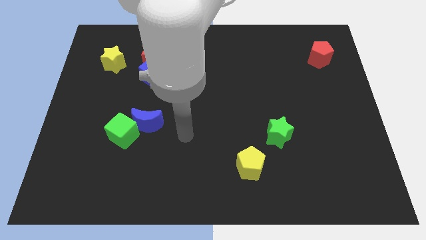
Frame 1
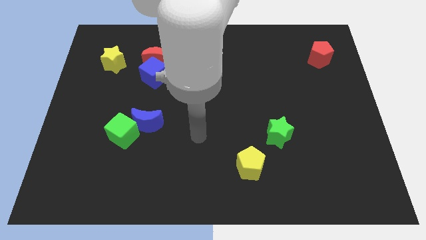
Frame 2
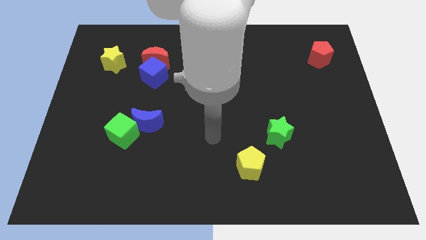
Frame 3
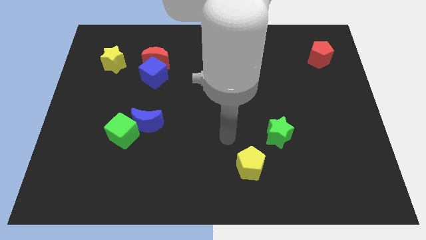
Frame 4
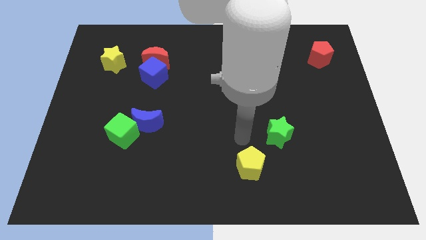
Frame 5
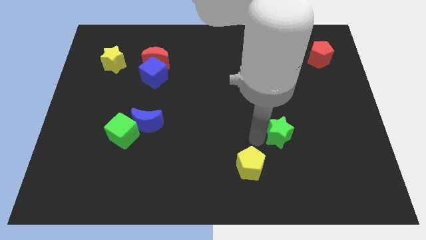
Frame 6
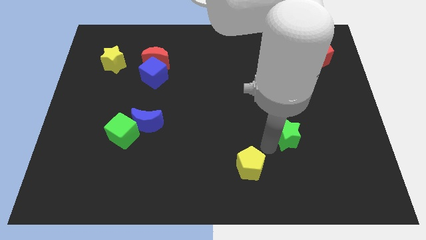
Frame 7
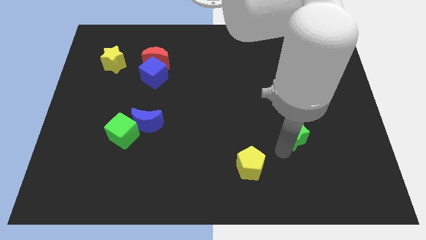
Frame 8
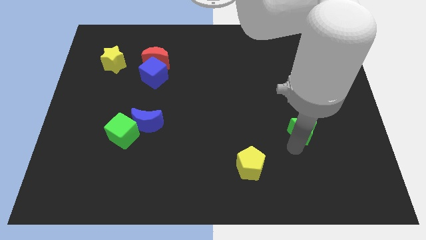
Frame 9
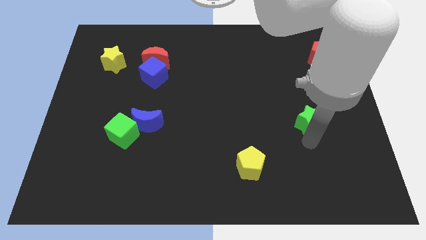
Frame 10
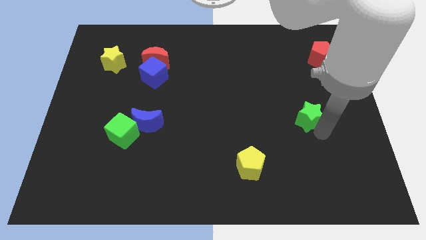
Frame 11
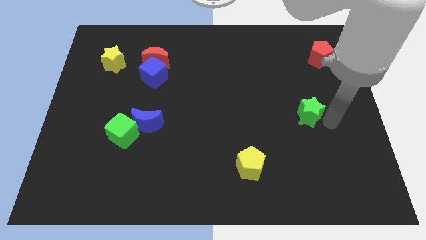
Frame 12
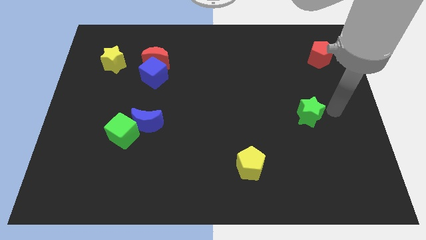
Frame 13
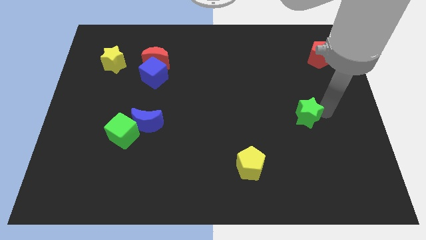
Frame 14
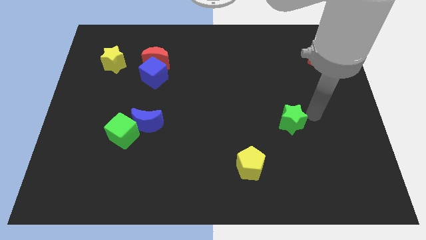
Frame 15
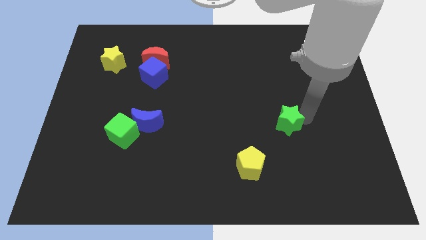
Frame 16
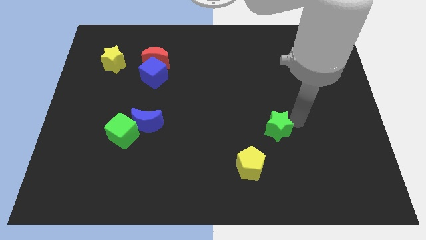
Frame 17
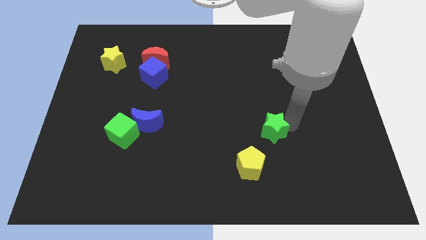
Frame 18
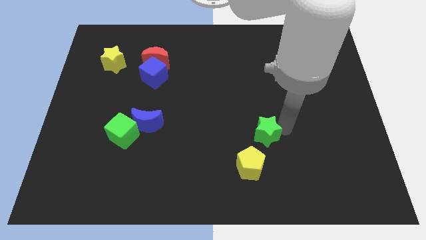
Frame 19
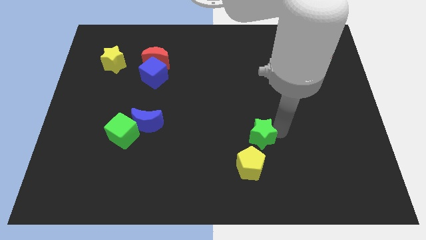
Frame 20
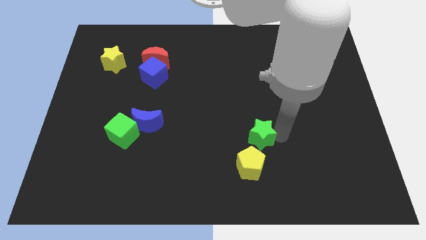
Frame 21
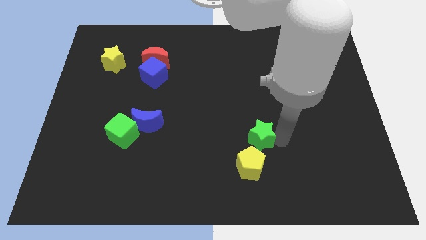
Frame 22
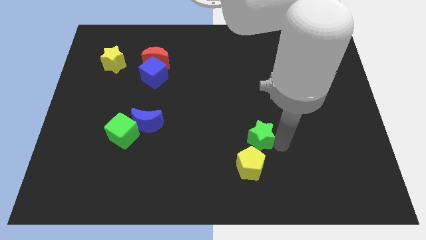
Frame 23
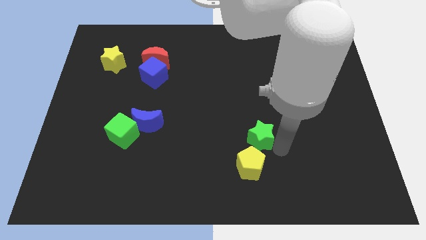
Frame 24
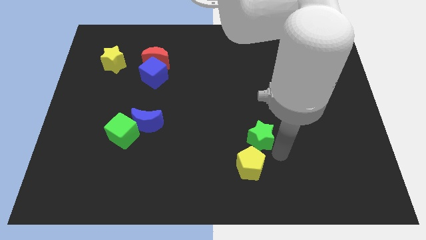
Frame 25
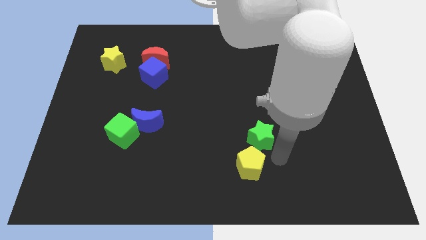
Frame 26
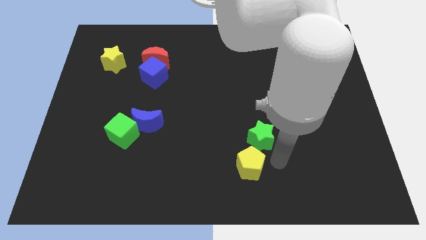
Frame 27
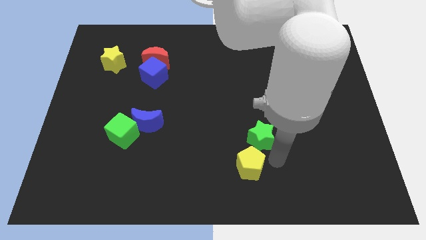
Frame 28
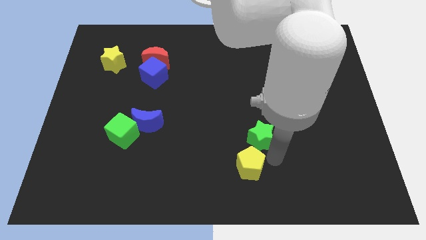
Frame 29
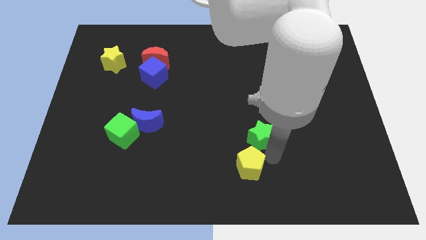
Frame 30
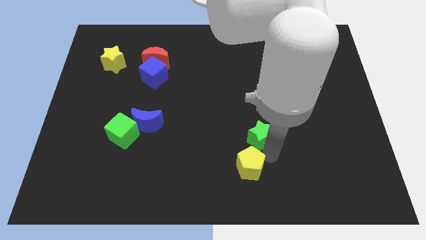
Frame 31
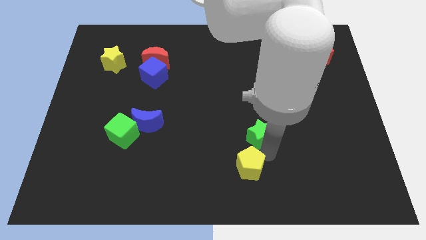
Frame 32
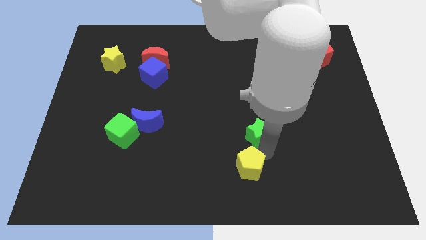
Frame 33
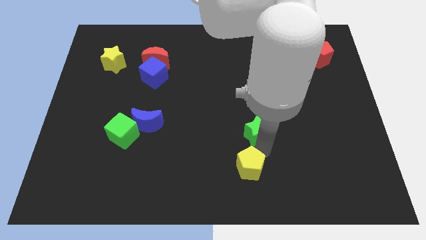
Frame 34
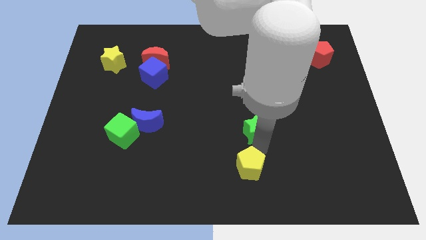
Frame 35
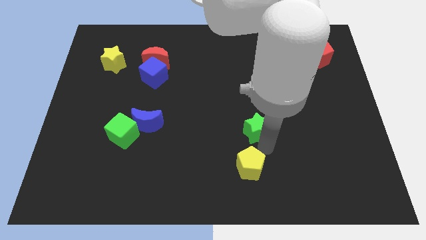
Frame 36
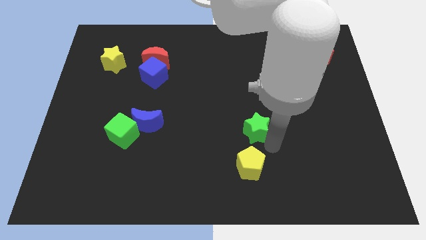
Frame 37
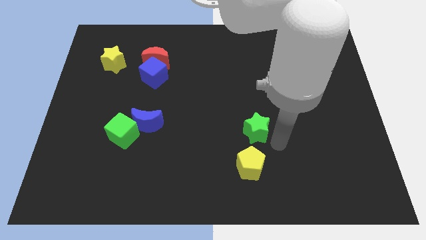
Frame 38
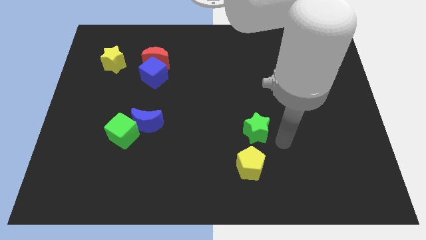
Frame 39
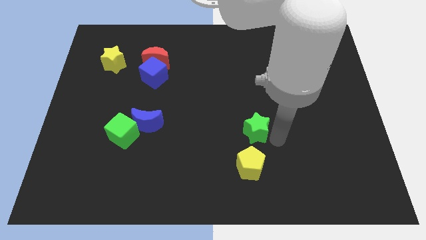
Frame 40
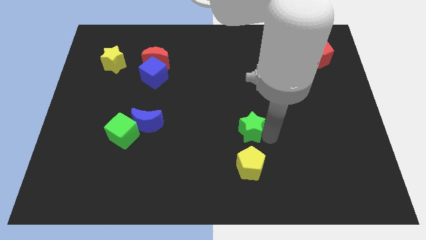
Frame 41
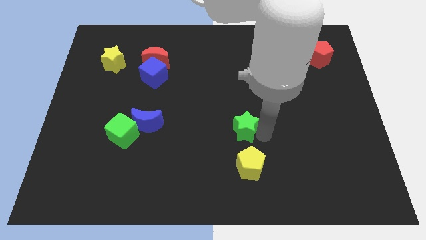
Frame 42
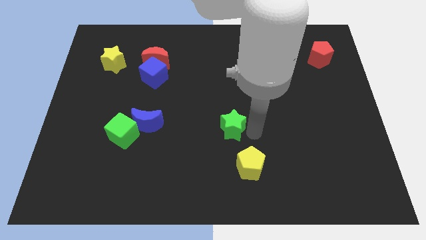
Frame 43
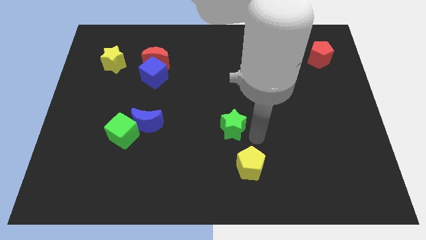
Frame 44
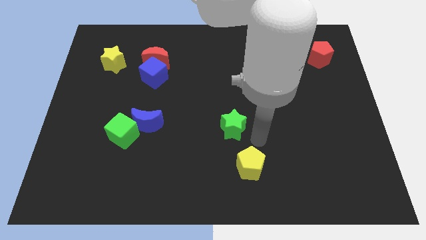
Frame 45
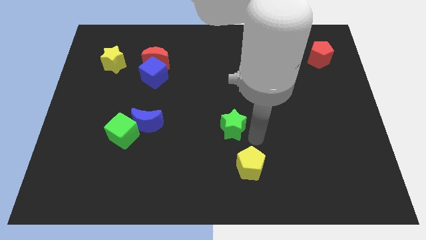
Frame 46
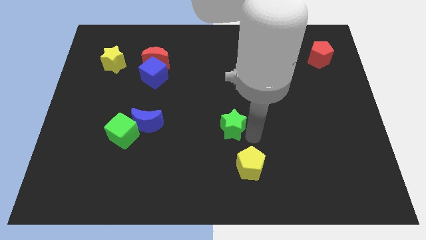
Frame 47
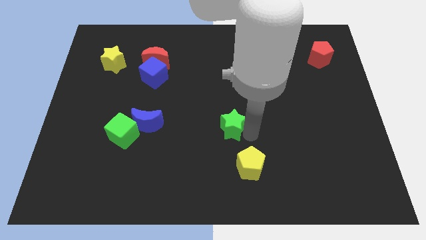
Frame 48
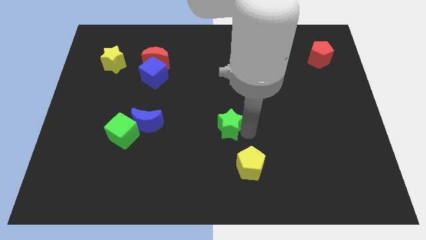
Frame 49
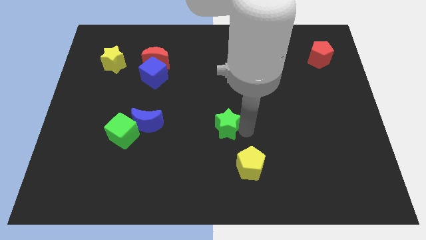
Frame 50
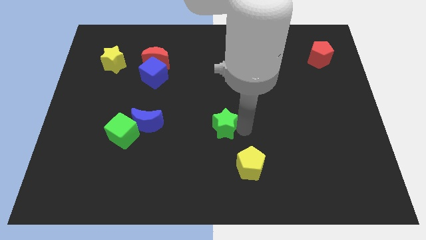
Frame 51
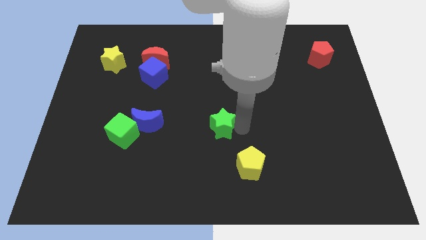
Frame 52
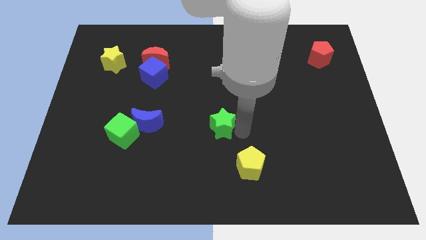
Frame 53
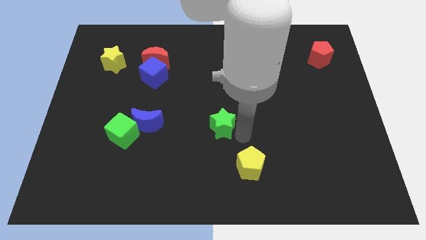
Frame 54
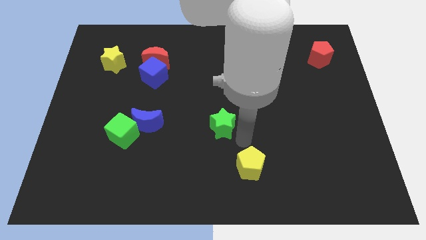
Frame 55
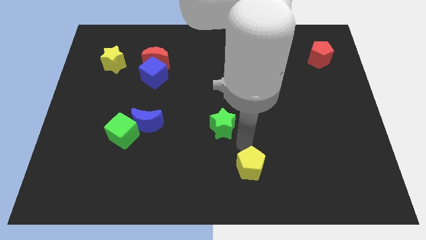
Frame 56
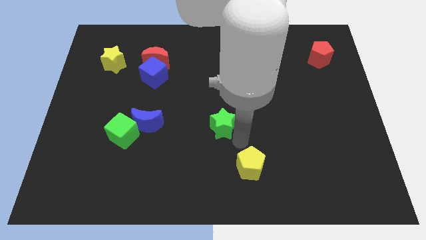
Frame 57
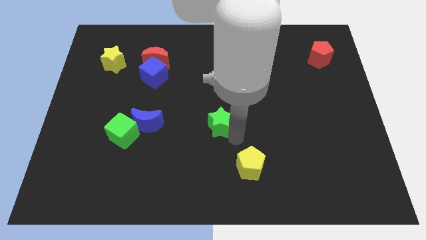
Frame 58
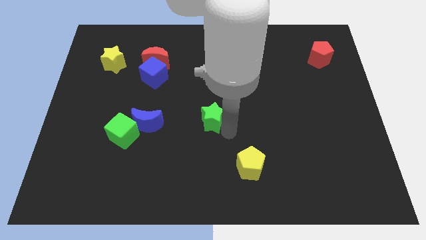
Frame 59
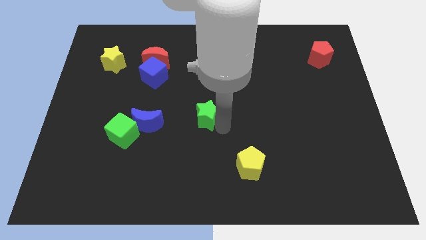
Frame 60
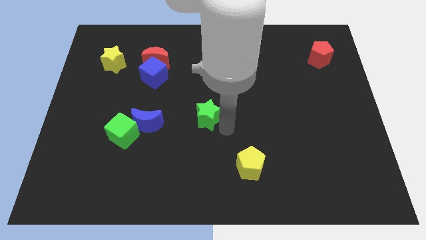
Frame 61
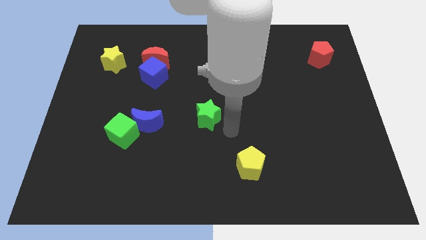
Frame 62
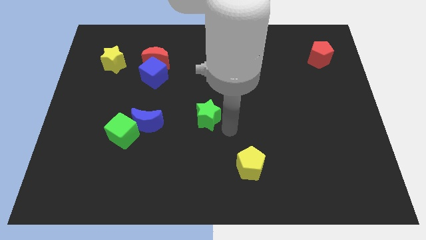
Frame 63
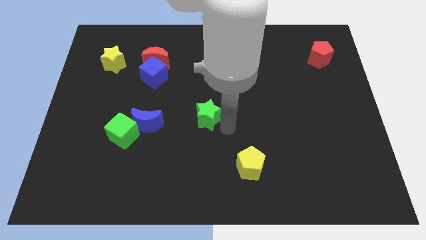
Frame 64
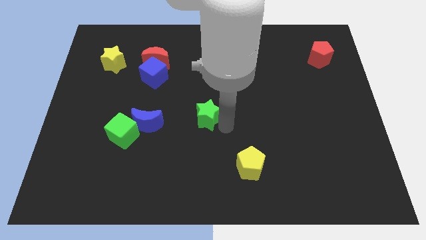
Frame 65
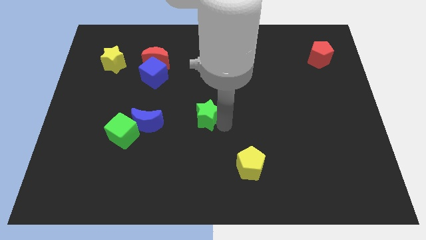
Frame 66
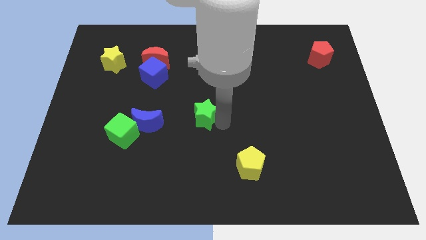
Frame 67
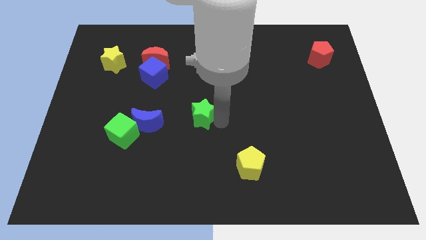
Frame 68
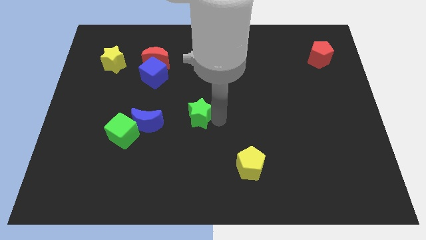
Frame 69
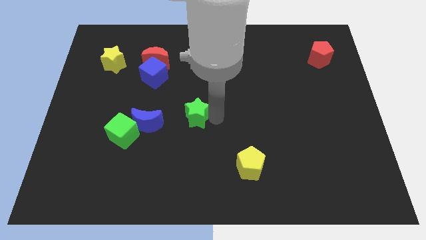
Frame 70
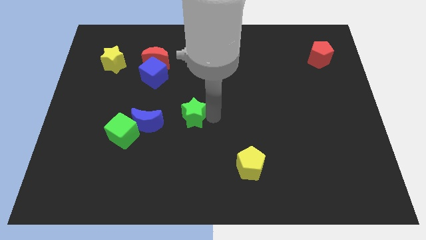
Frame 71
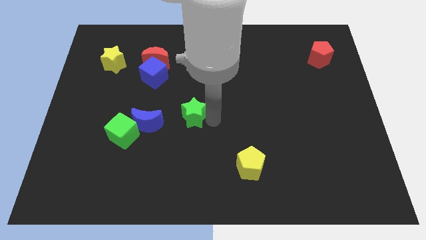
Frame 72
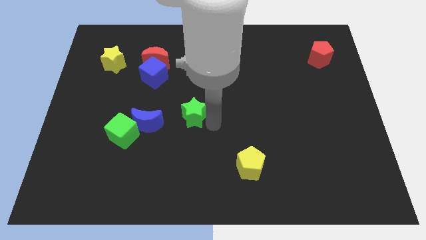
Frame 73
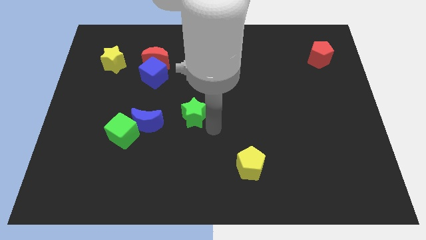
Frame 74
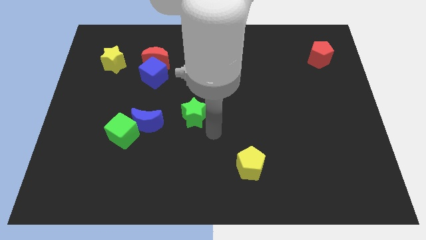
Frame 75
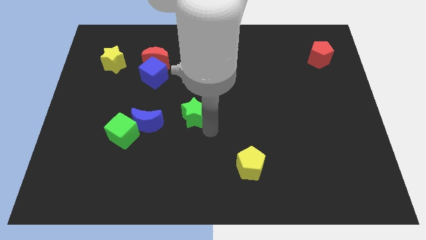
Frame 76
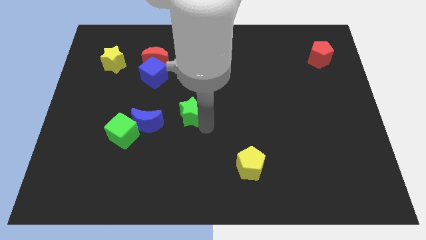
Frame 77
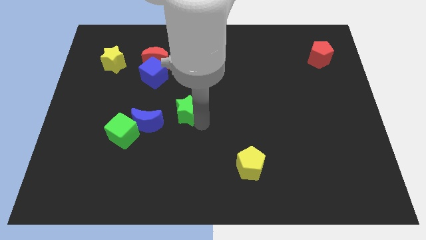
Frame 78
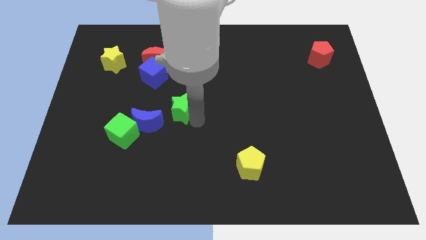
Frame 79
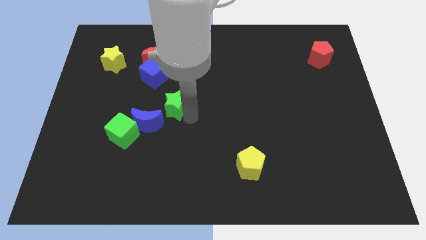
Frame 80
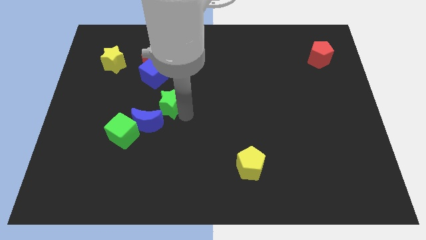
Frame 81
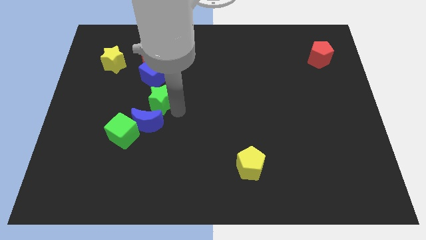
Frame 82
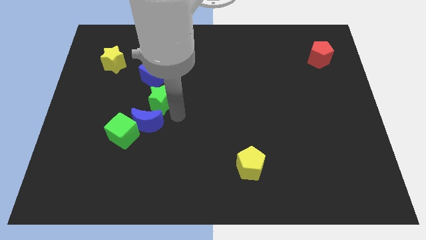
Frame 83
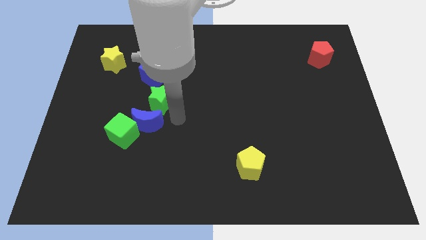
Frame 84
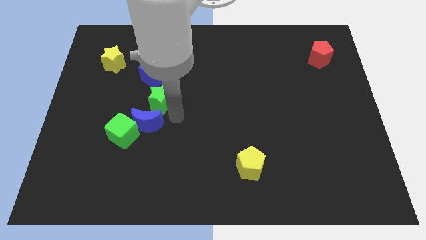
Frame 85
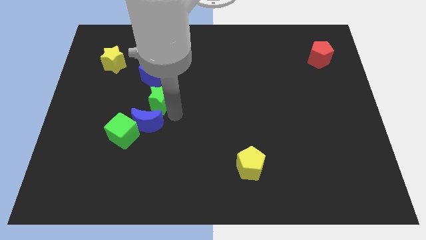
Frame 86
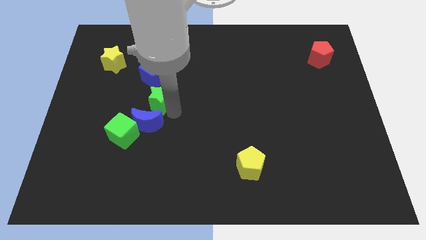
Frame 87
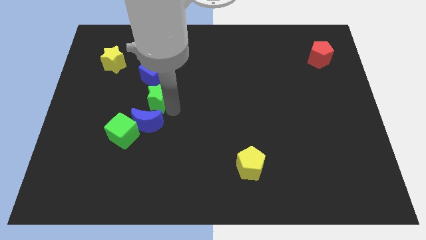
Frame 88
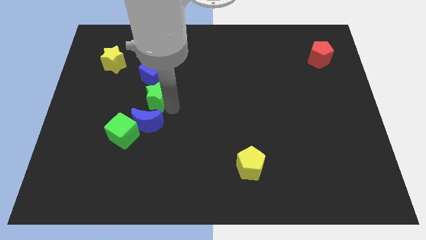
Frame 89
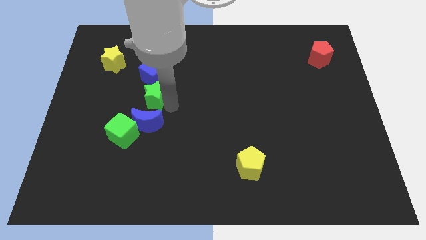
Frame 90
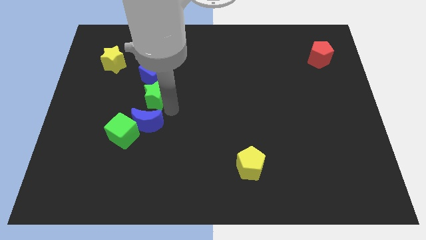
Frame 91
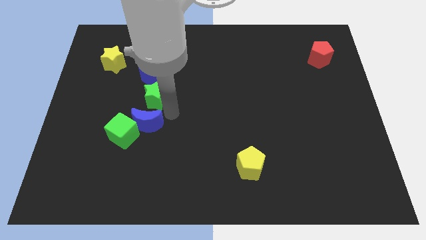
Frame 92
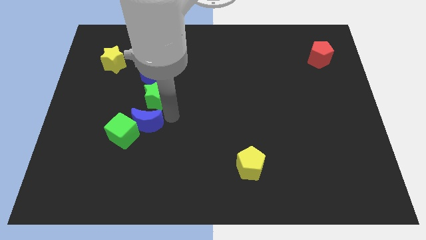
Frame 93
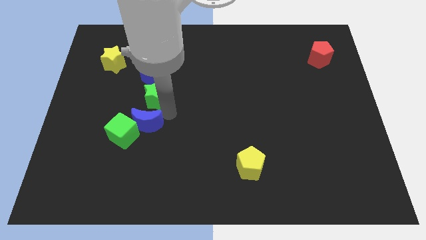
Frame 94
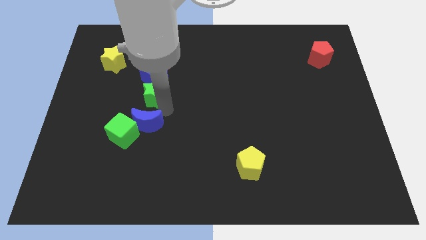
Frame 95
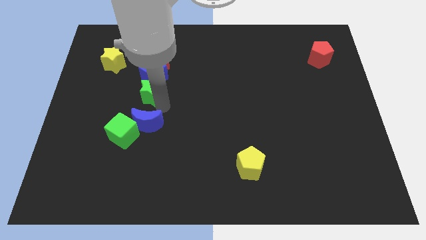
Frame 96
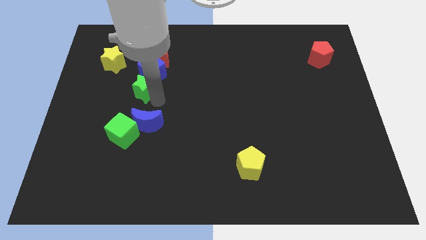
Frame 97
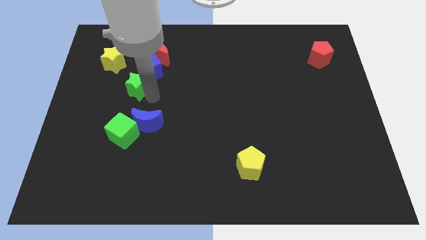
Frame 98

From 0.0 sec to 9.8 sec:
slide the green star to the bottom right side of the yellow star
